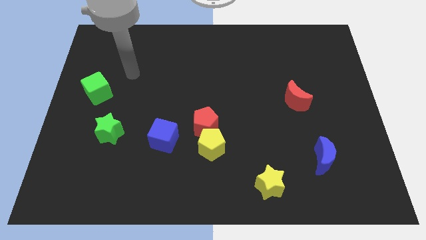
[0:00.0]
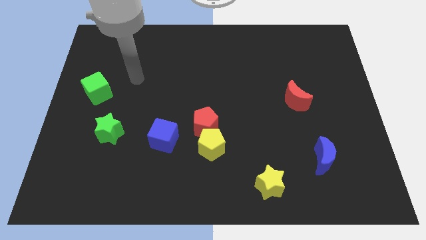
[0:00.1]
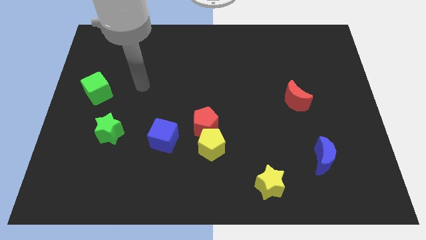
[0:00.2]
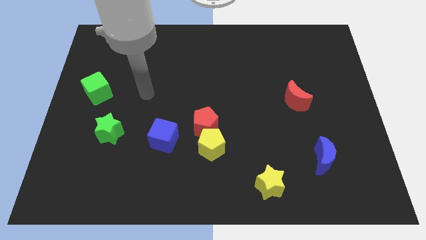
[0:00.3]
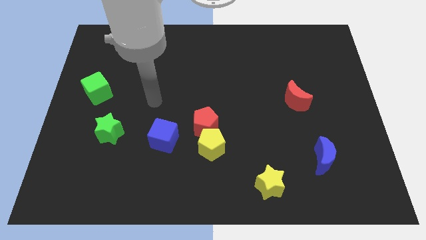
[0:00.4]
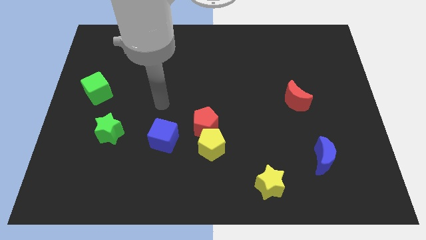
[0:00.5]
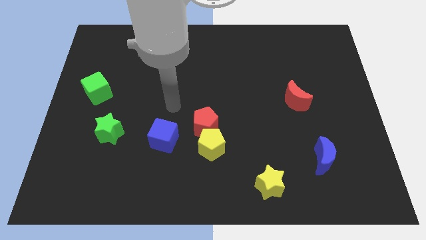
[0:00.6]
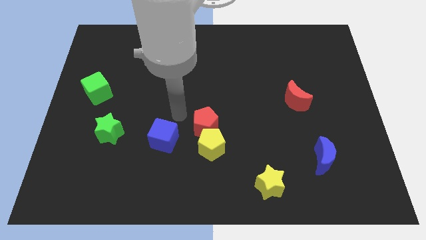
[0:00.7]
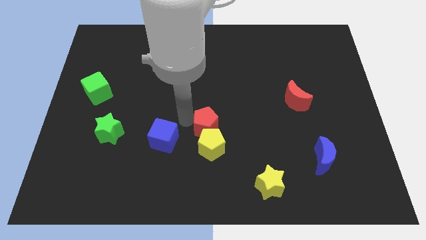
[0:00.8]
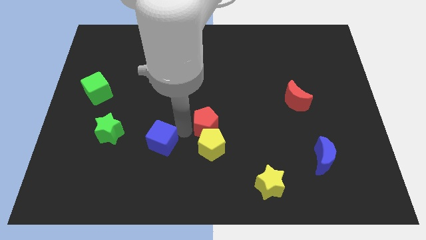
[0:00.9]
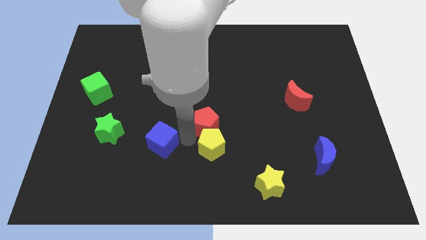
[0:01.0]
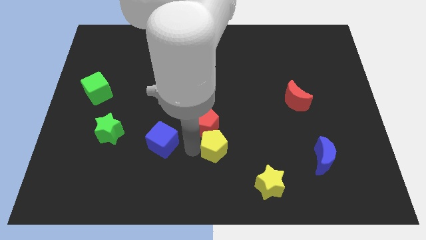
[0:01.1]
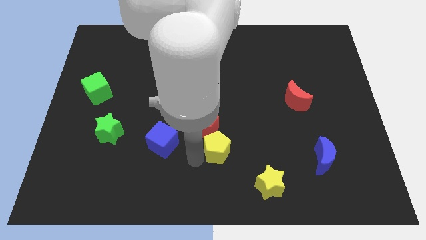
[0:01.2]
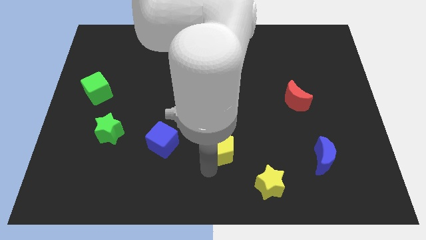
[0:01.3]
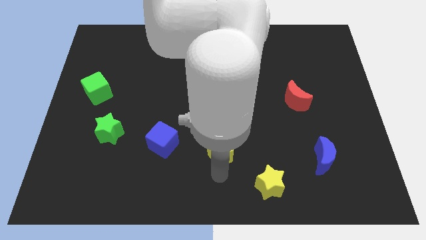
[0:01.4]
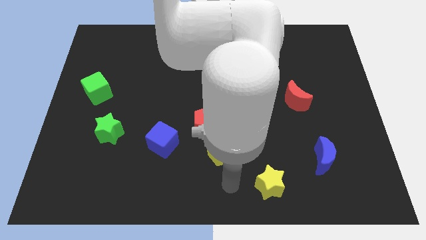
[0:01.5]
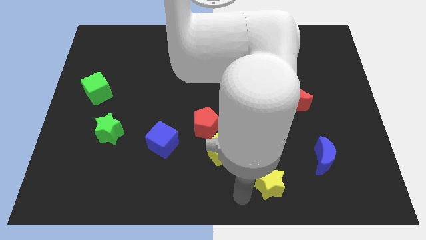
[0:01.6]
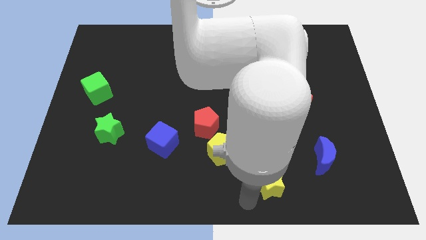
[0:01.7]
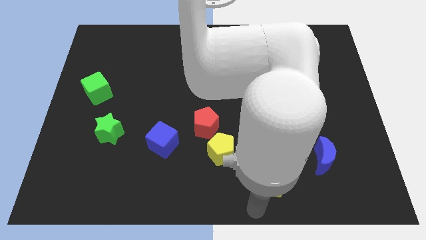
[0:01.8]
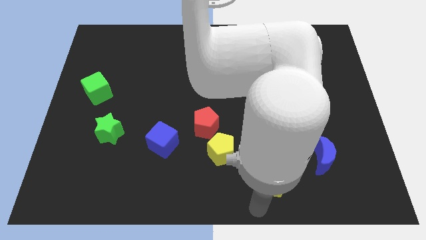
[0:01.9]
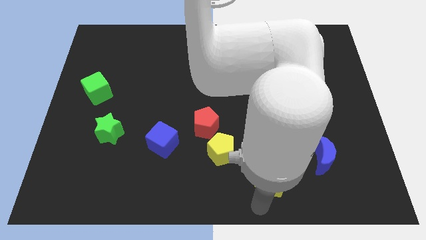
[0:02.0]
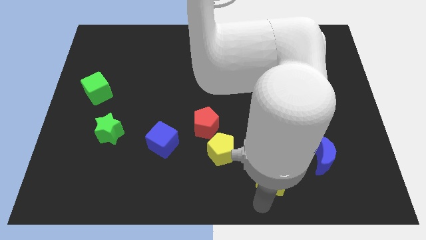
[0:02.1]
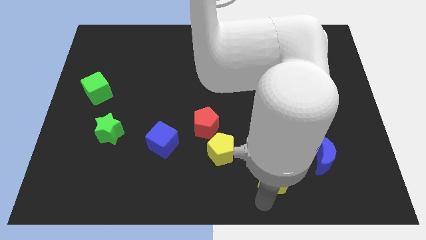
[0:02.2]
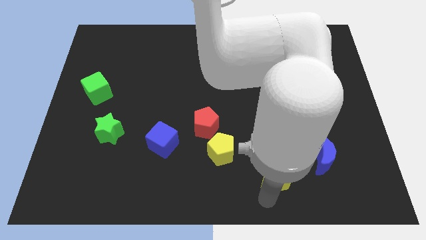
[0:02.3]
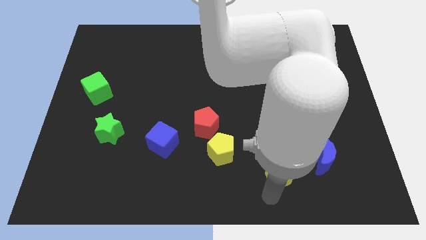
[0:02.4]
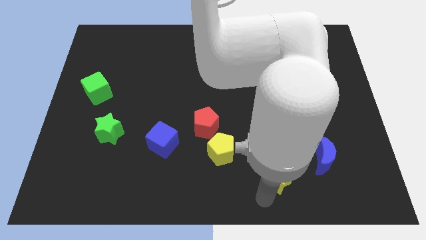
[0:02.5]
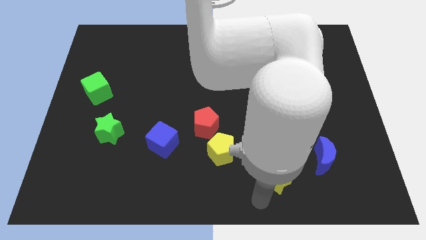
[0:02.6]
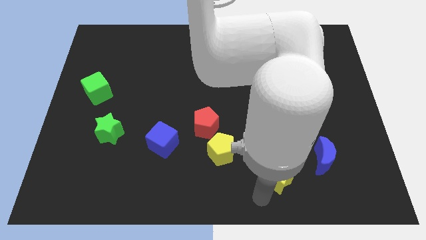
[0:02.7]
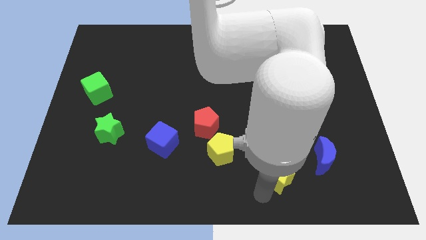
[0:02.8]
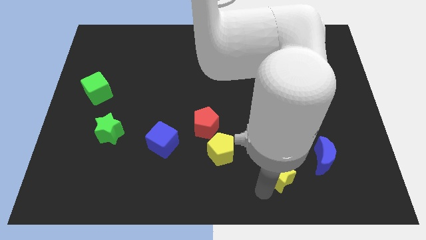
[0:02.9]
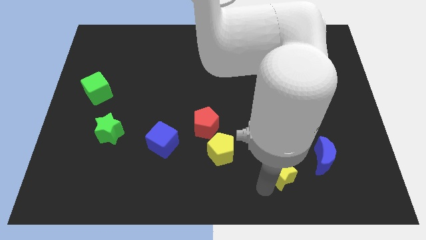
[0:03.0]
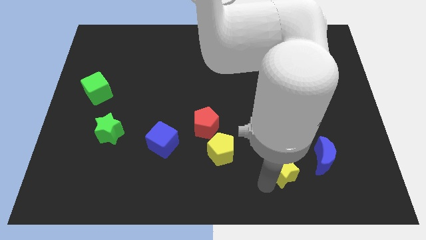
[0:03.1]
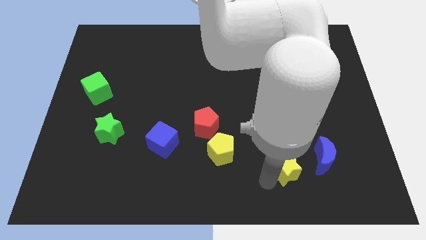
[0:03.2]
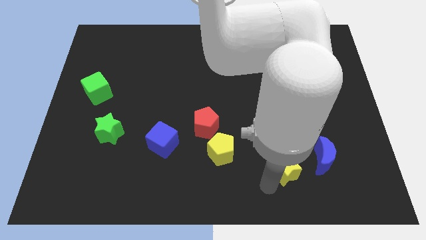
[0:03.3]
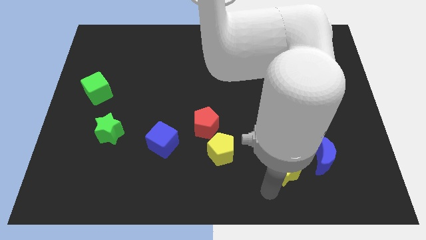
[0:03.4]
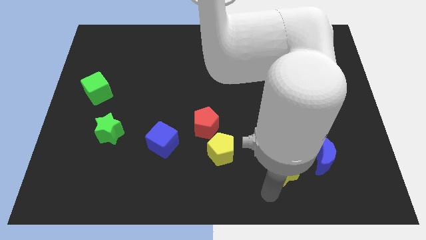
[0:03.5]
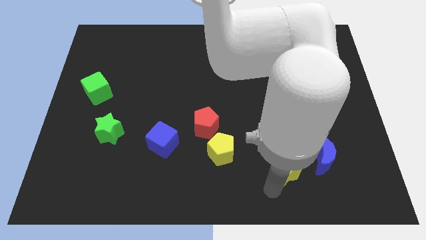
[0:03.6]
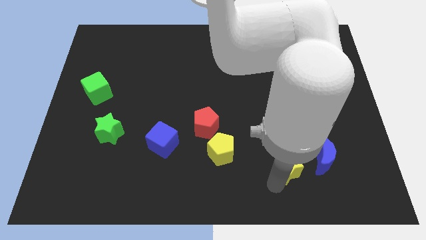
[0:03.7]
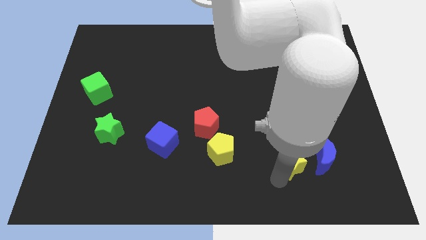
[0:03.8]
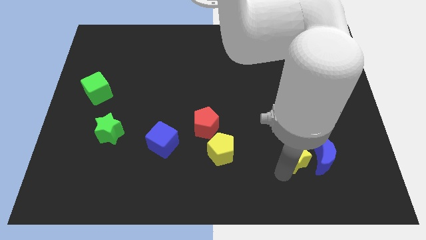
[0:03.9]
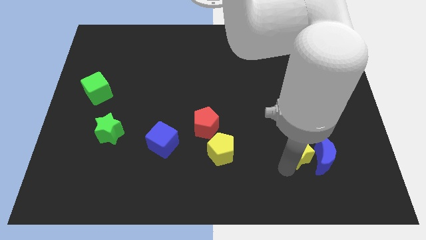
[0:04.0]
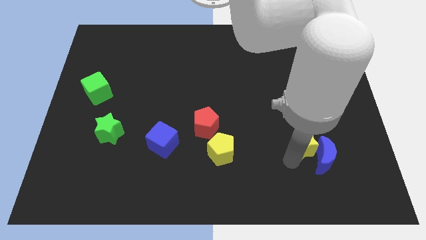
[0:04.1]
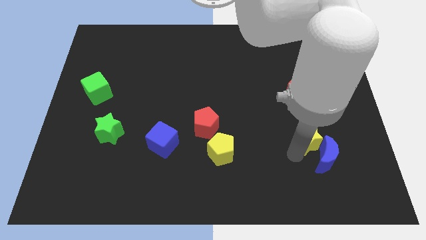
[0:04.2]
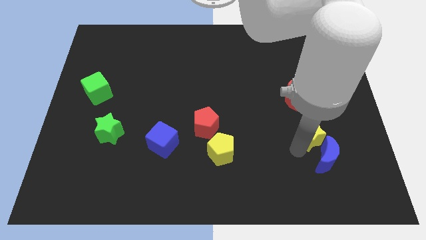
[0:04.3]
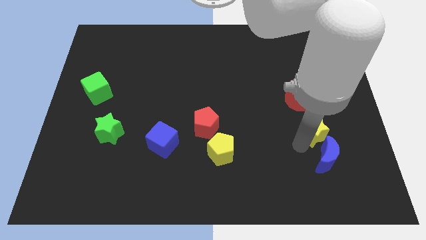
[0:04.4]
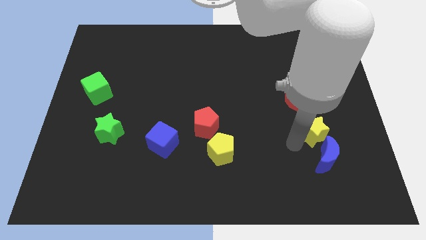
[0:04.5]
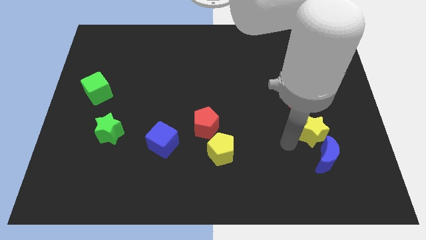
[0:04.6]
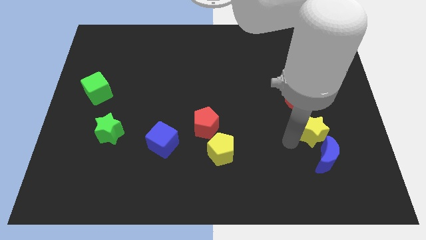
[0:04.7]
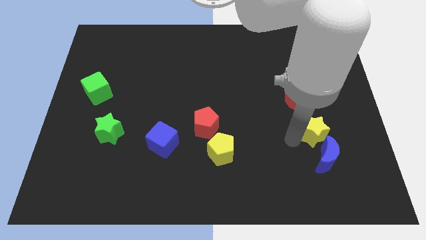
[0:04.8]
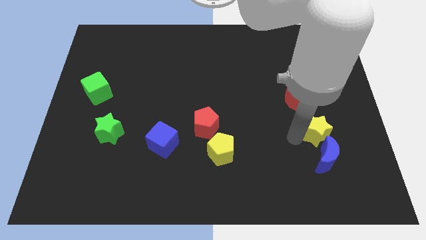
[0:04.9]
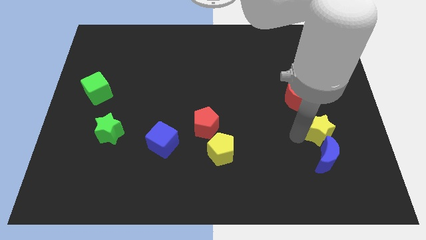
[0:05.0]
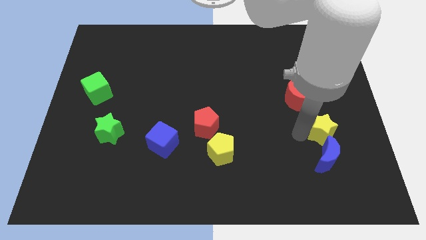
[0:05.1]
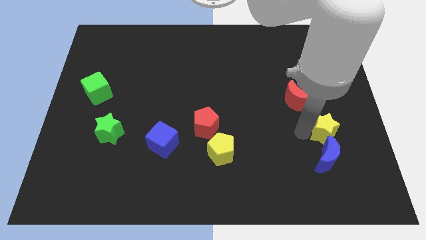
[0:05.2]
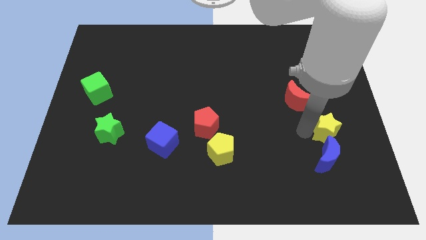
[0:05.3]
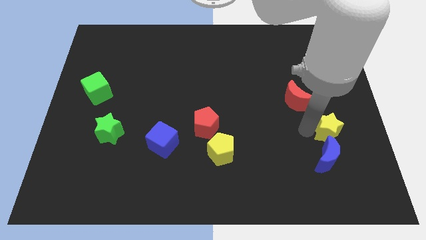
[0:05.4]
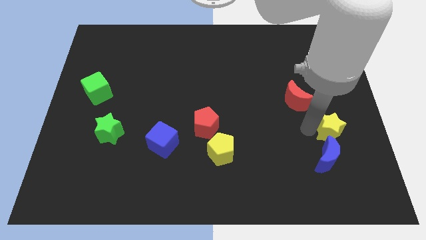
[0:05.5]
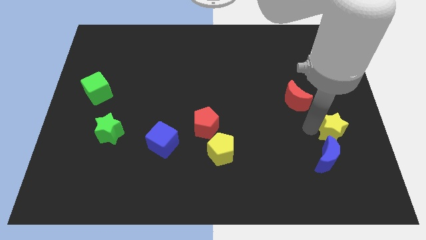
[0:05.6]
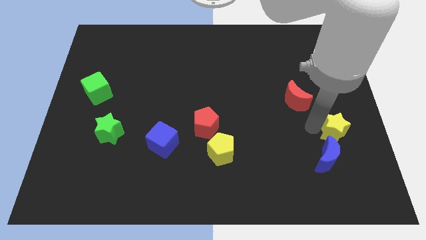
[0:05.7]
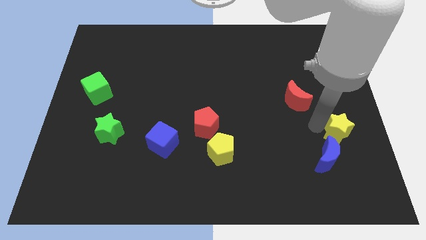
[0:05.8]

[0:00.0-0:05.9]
slide the yellow star to the center right
